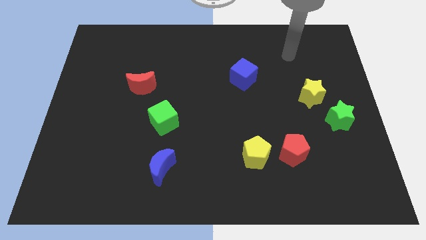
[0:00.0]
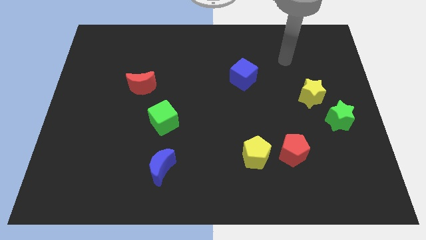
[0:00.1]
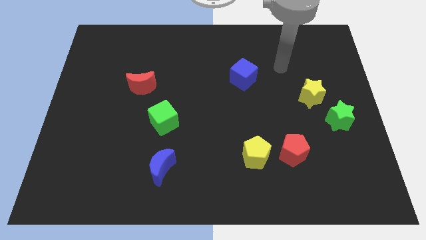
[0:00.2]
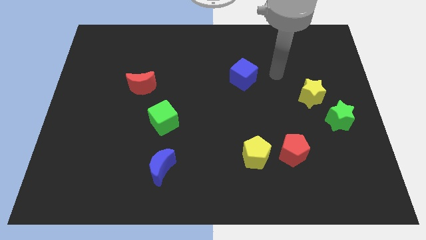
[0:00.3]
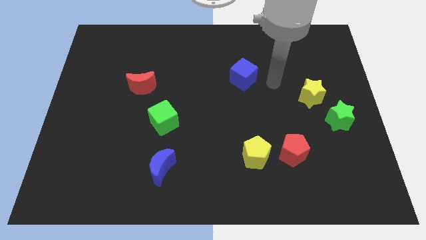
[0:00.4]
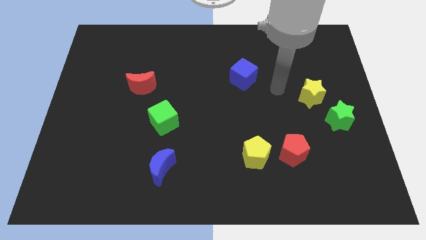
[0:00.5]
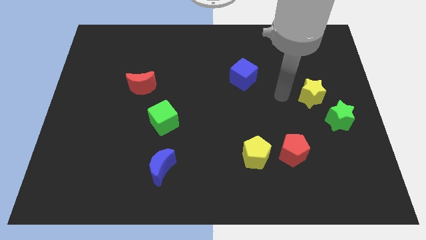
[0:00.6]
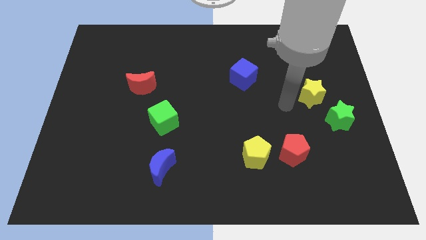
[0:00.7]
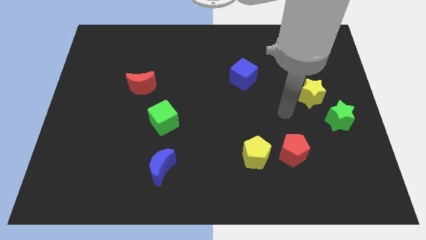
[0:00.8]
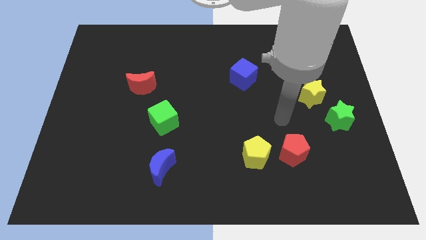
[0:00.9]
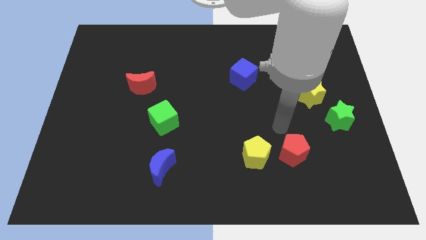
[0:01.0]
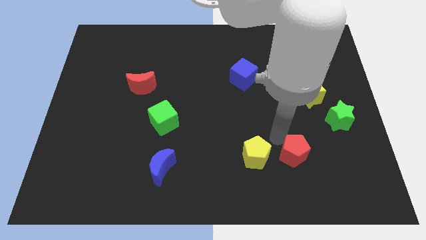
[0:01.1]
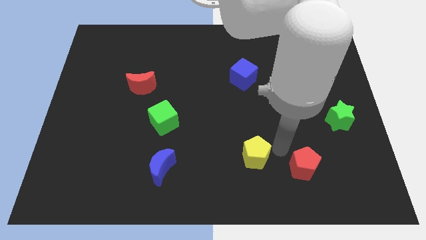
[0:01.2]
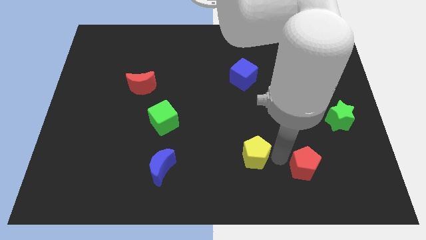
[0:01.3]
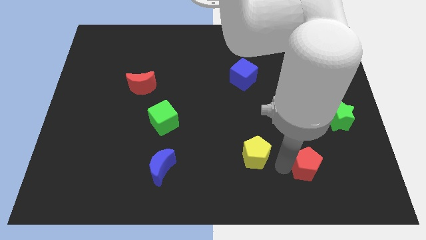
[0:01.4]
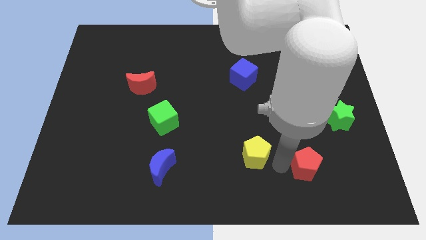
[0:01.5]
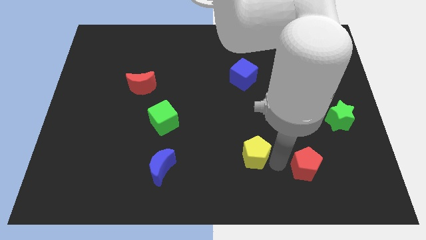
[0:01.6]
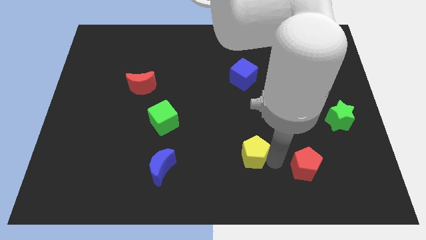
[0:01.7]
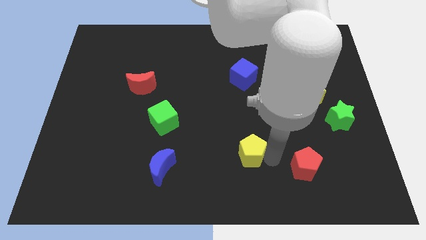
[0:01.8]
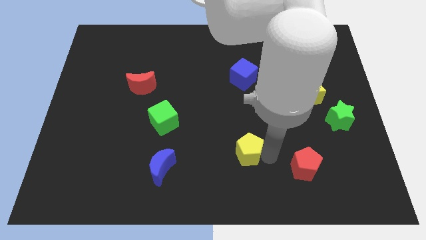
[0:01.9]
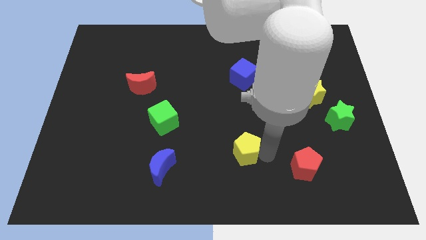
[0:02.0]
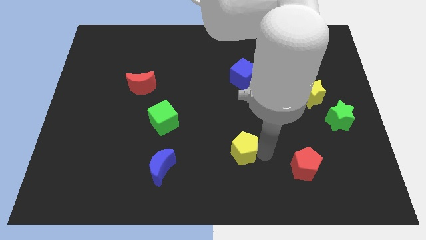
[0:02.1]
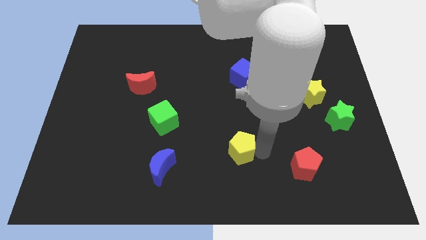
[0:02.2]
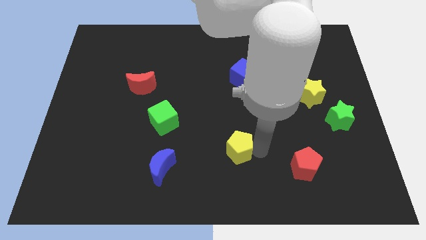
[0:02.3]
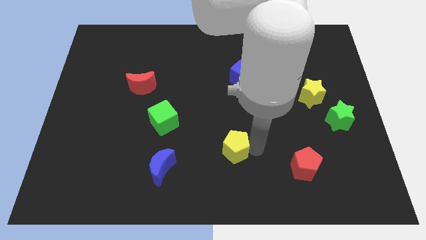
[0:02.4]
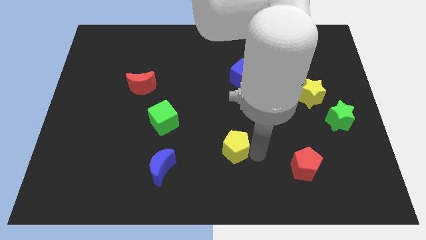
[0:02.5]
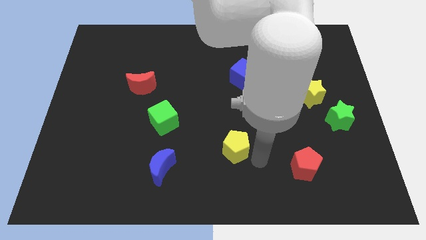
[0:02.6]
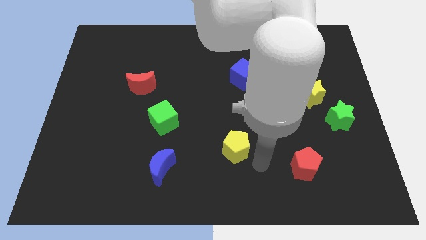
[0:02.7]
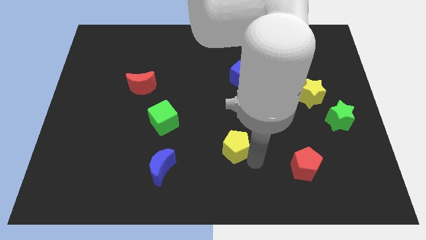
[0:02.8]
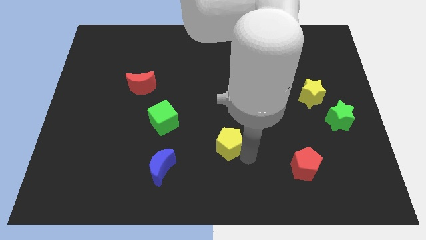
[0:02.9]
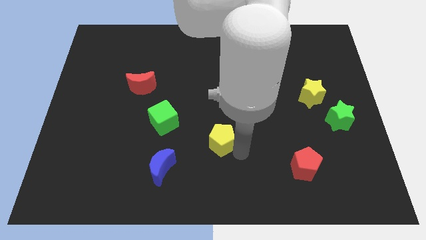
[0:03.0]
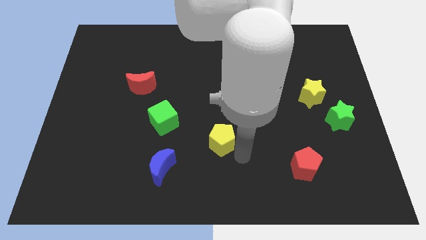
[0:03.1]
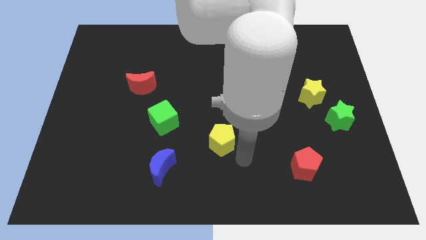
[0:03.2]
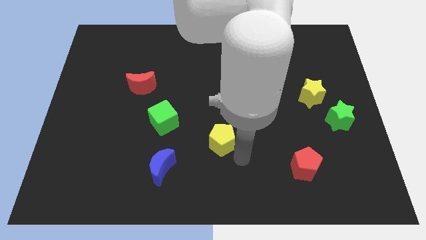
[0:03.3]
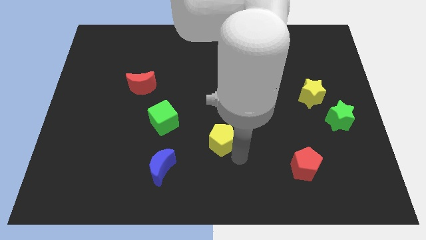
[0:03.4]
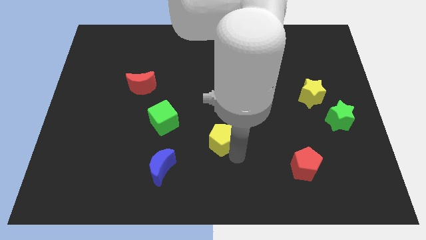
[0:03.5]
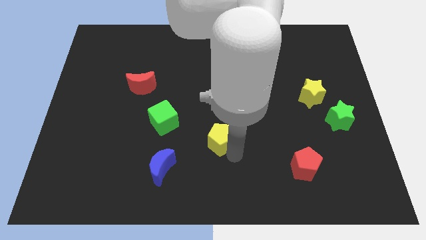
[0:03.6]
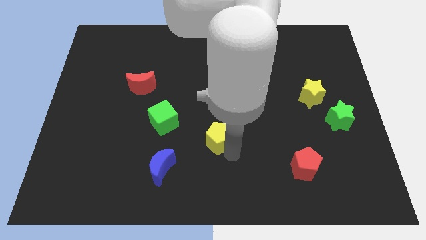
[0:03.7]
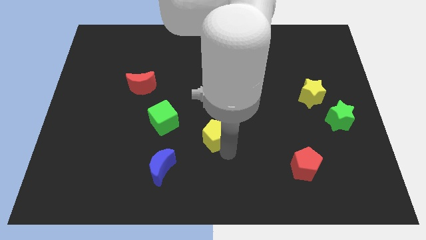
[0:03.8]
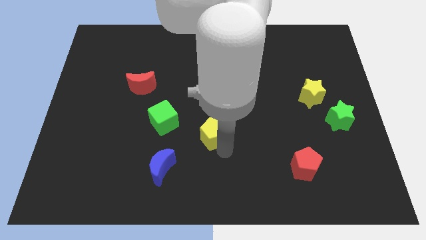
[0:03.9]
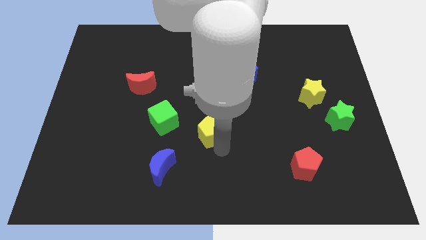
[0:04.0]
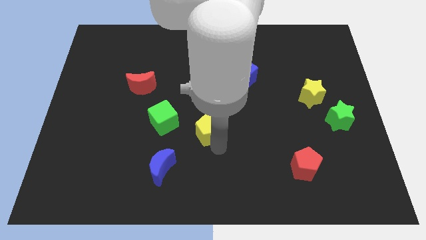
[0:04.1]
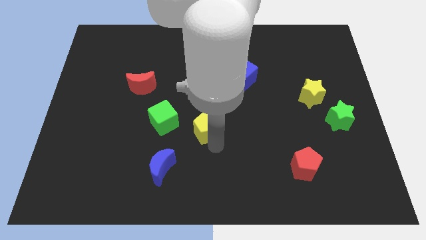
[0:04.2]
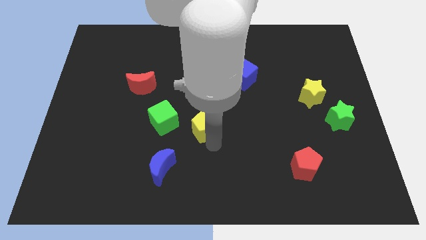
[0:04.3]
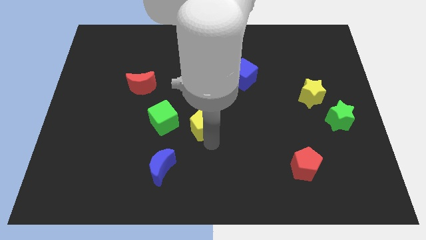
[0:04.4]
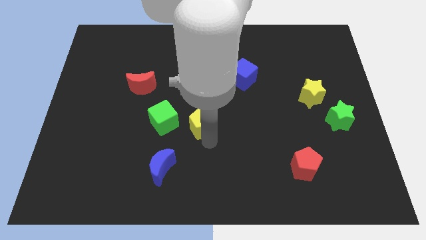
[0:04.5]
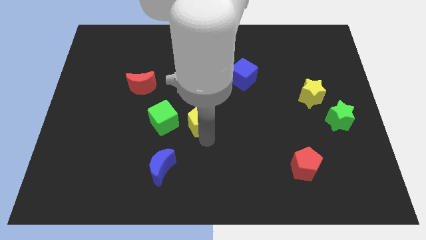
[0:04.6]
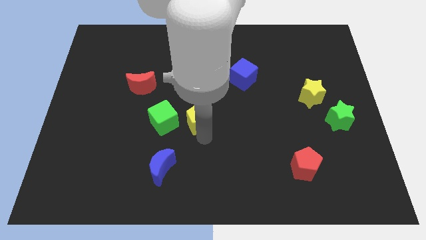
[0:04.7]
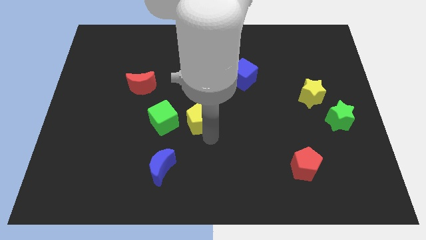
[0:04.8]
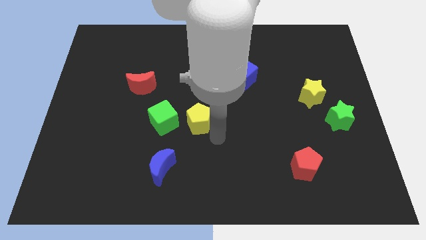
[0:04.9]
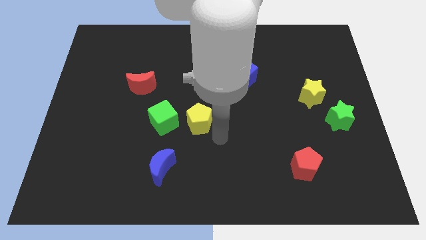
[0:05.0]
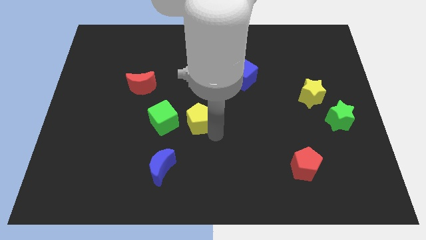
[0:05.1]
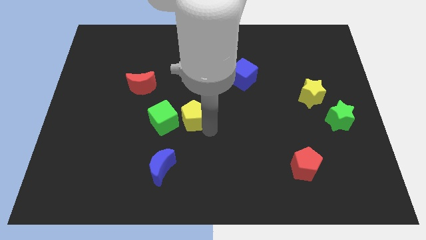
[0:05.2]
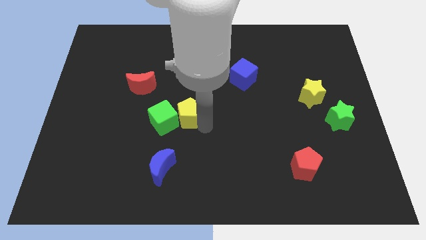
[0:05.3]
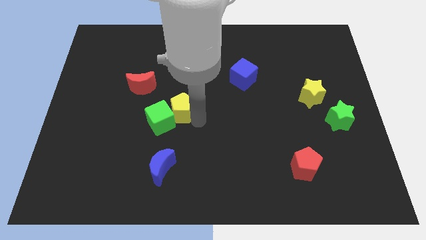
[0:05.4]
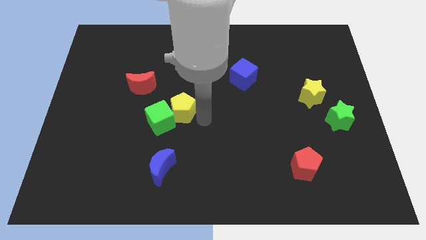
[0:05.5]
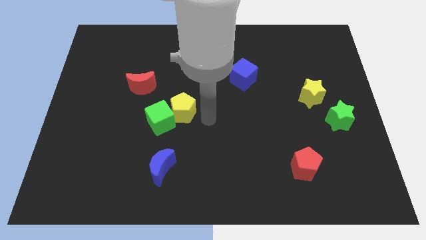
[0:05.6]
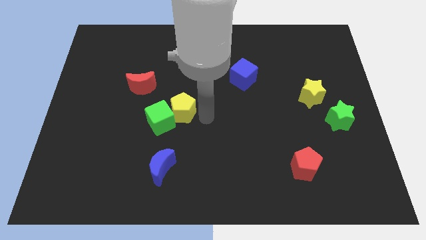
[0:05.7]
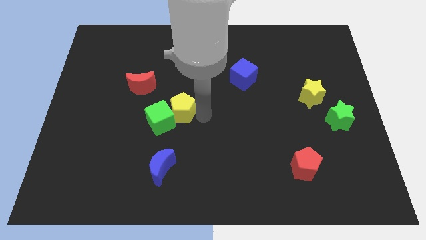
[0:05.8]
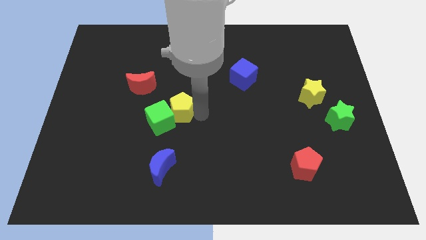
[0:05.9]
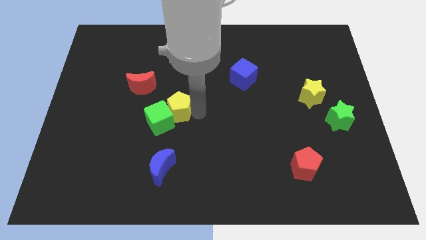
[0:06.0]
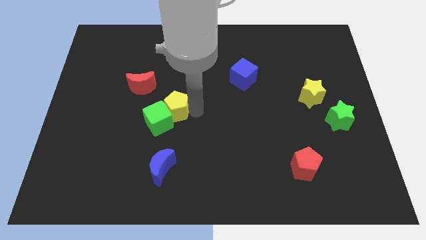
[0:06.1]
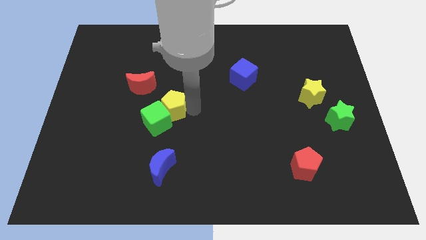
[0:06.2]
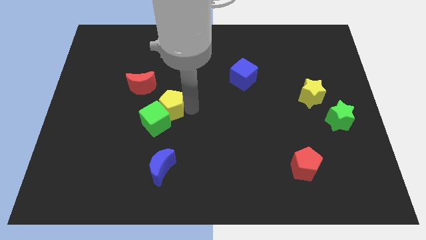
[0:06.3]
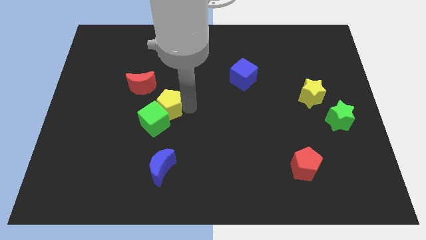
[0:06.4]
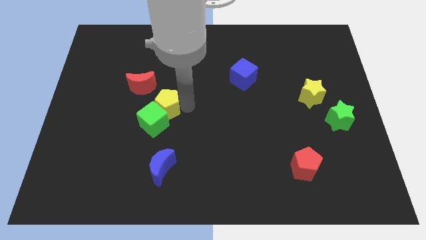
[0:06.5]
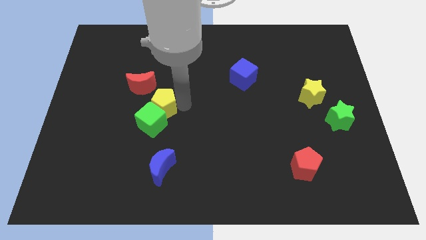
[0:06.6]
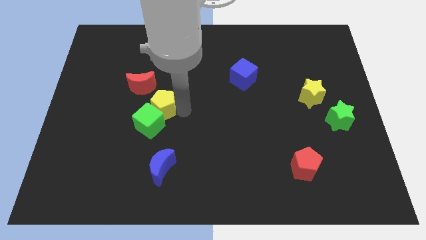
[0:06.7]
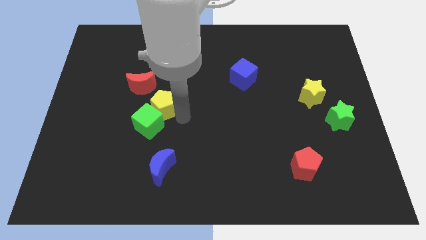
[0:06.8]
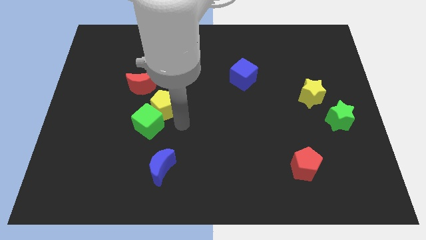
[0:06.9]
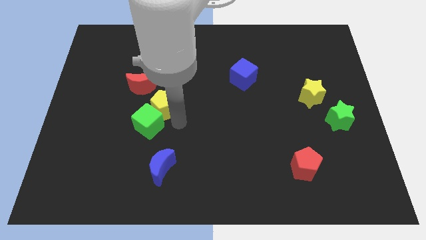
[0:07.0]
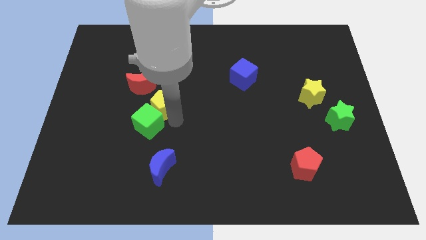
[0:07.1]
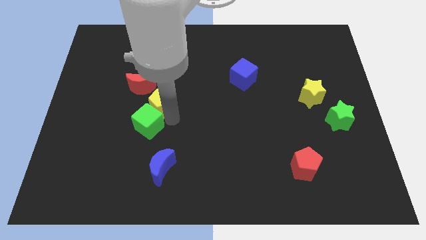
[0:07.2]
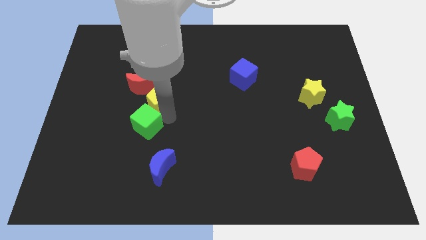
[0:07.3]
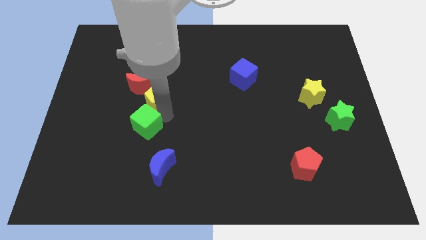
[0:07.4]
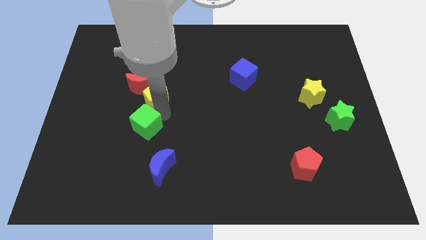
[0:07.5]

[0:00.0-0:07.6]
slide the yellow pentagon next to the red moon
